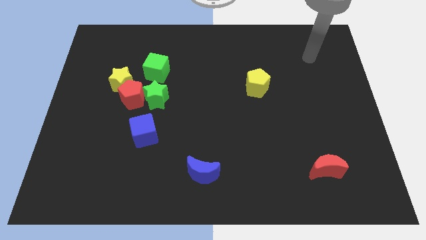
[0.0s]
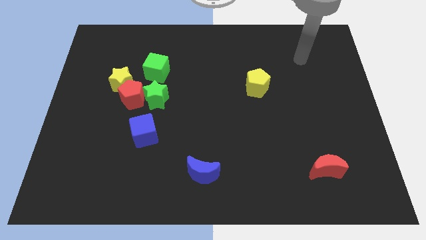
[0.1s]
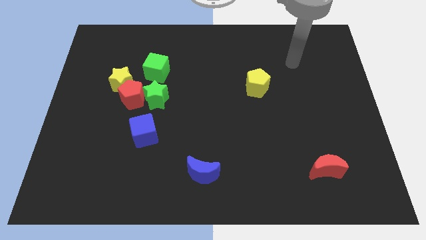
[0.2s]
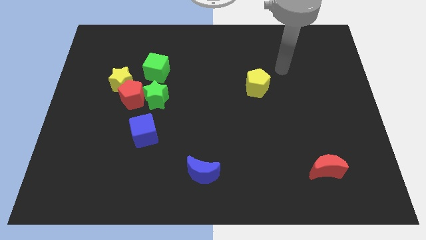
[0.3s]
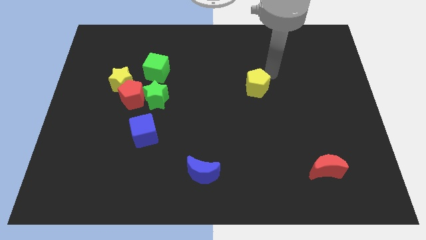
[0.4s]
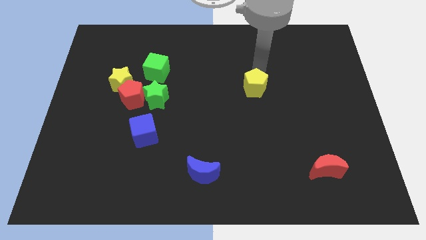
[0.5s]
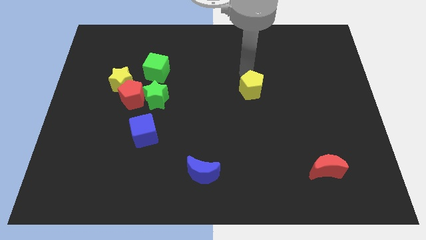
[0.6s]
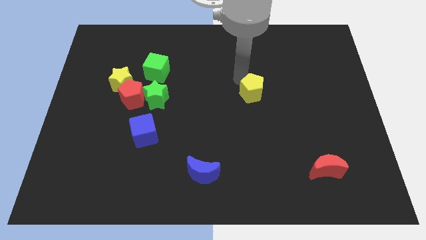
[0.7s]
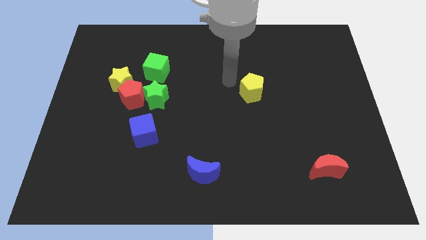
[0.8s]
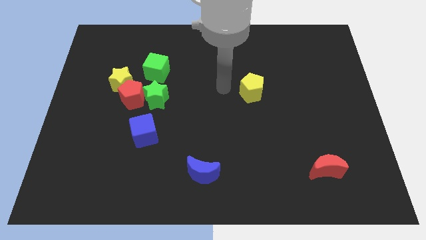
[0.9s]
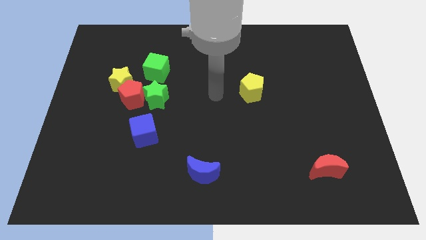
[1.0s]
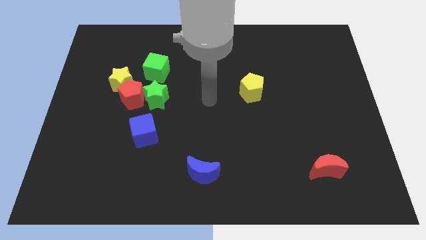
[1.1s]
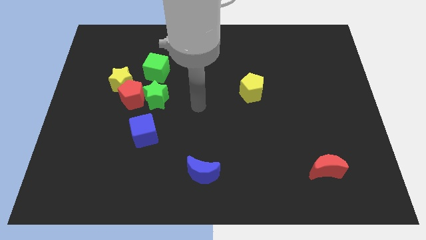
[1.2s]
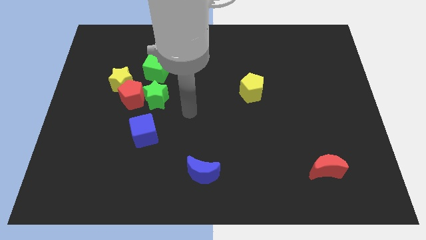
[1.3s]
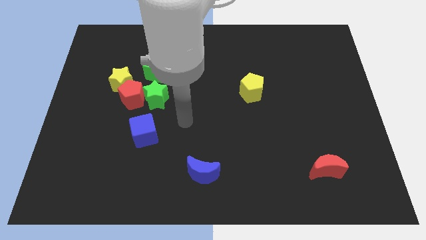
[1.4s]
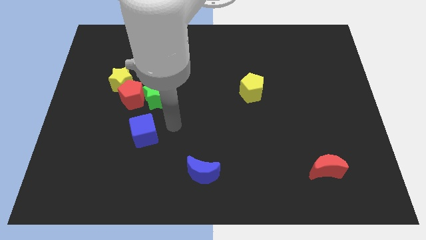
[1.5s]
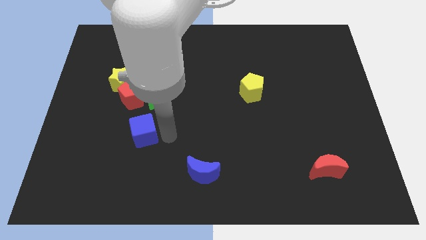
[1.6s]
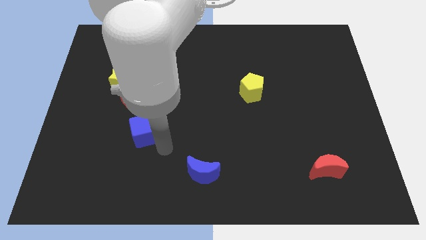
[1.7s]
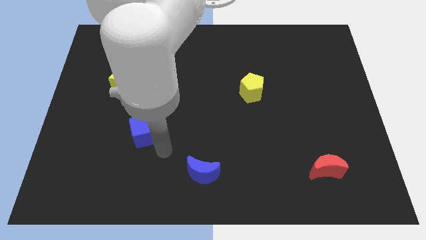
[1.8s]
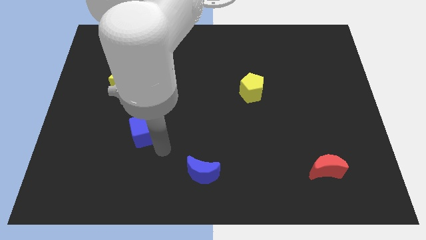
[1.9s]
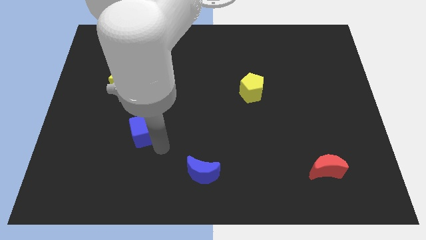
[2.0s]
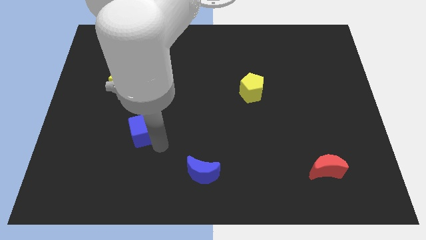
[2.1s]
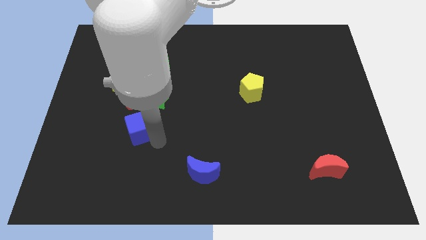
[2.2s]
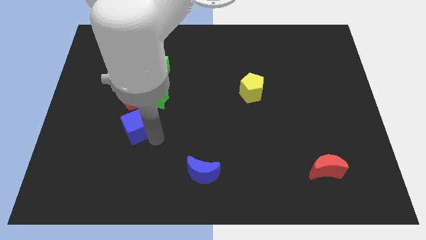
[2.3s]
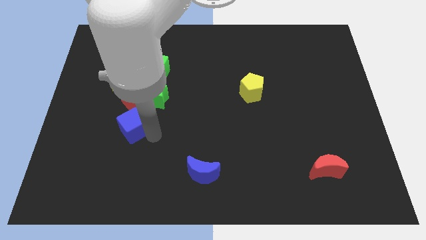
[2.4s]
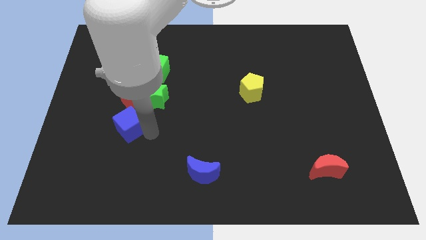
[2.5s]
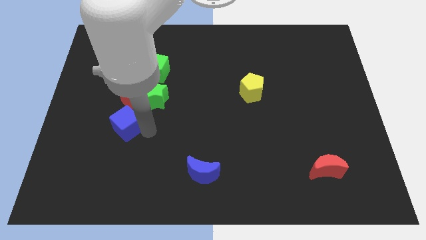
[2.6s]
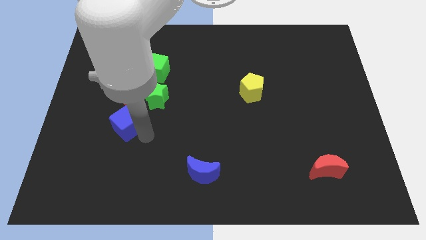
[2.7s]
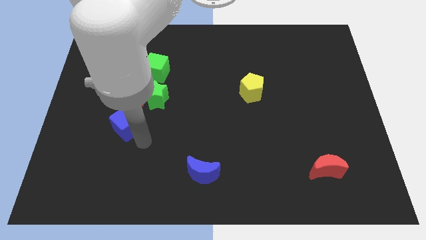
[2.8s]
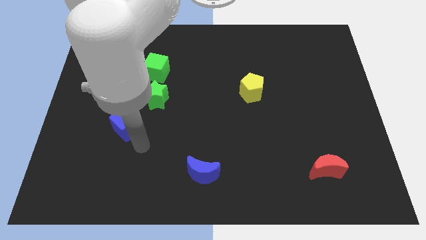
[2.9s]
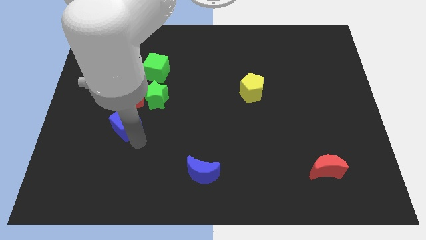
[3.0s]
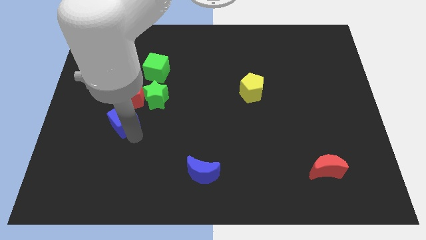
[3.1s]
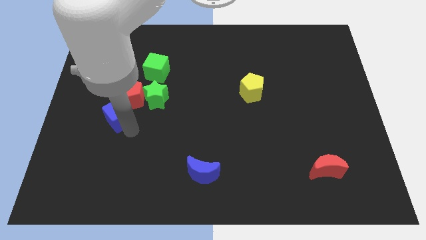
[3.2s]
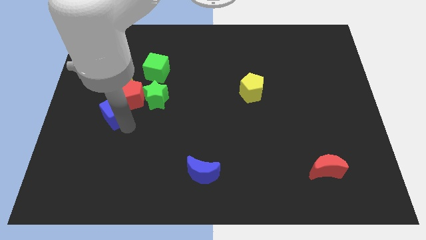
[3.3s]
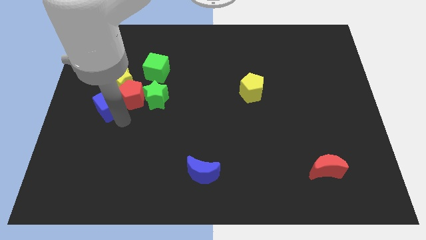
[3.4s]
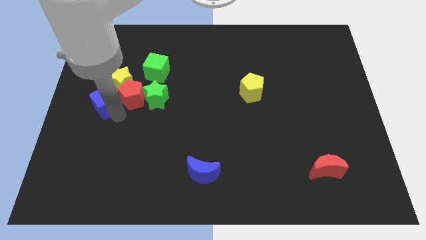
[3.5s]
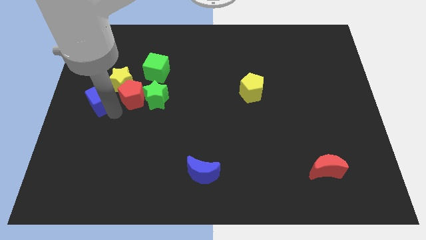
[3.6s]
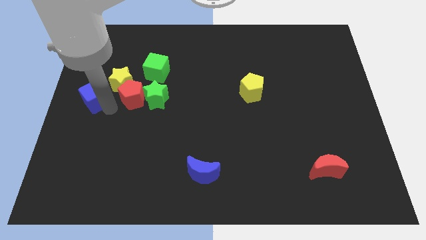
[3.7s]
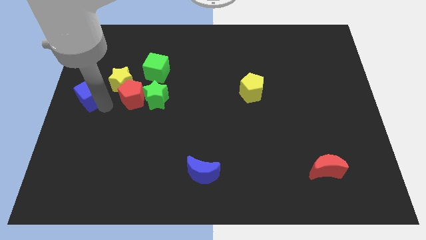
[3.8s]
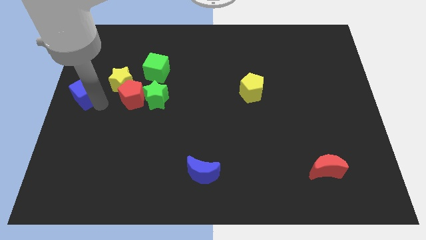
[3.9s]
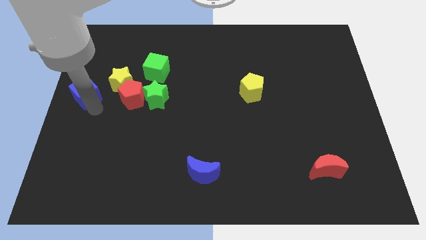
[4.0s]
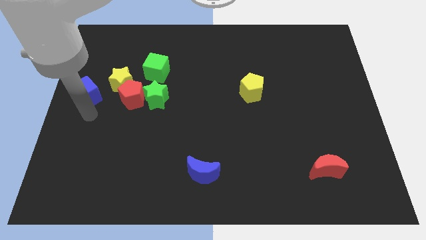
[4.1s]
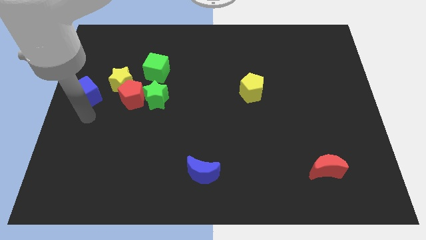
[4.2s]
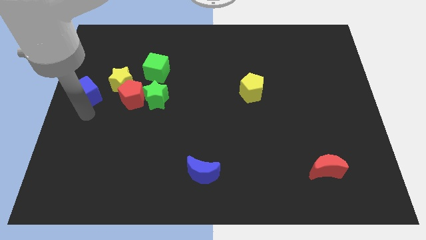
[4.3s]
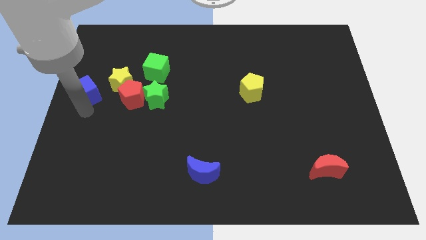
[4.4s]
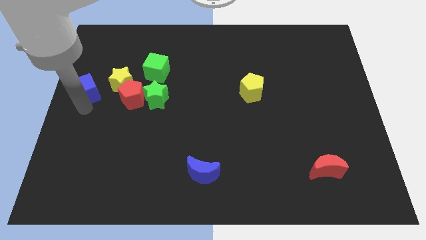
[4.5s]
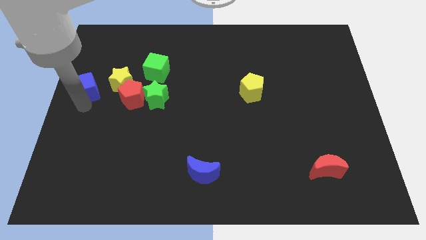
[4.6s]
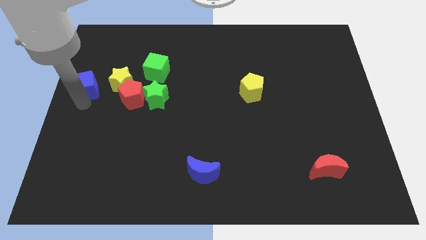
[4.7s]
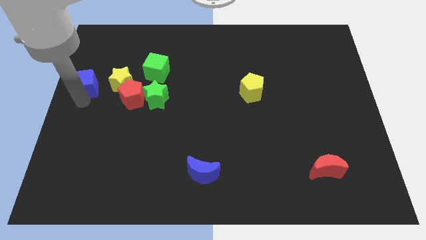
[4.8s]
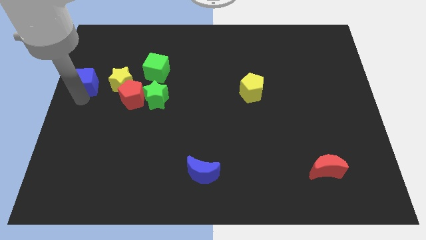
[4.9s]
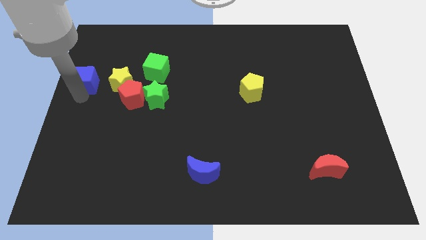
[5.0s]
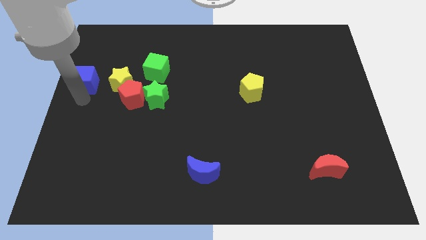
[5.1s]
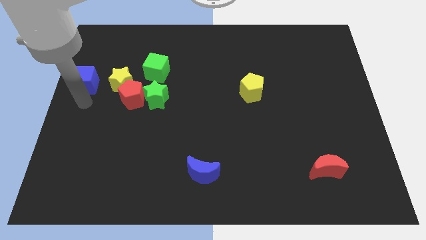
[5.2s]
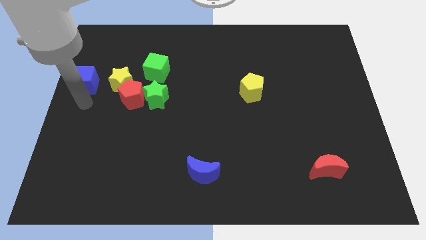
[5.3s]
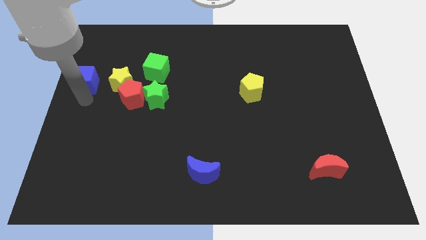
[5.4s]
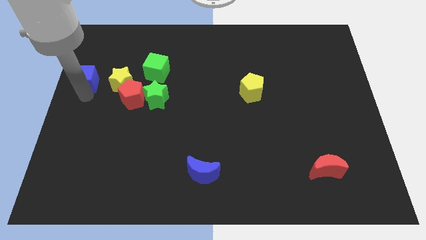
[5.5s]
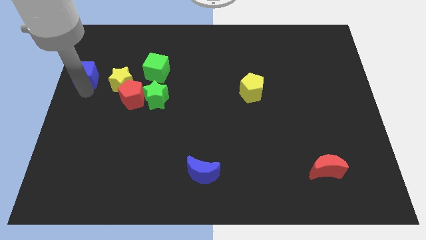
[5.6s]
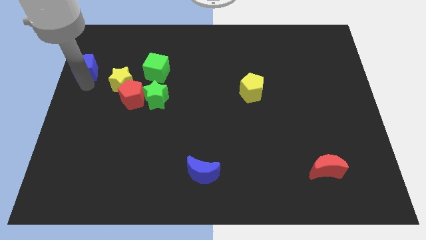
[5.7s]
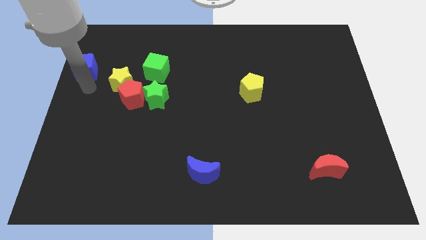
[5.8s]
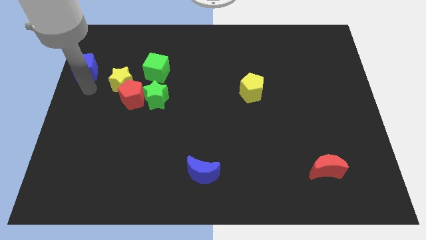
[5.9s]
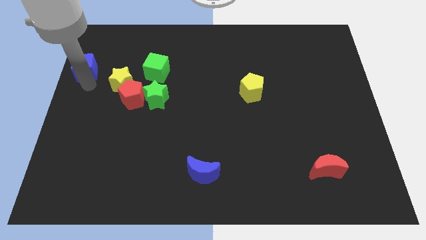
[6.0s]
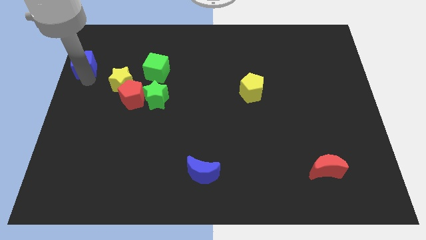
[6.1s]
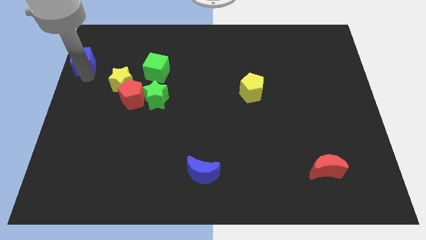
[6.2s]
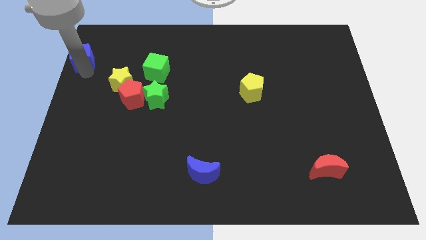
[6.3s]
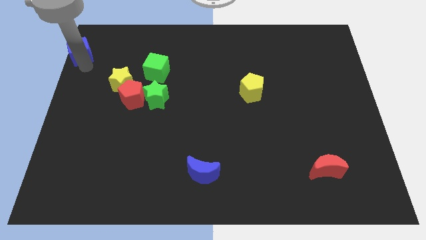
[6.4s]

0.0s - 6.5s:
push the blue cube to the top left

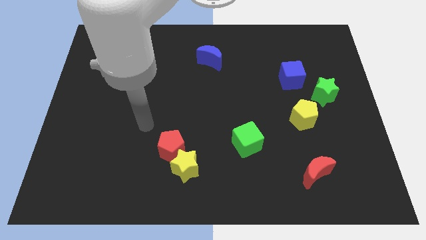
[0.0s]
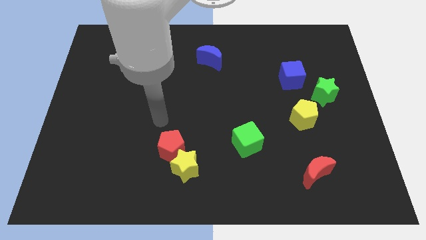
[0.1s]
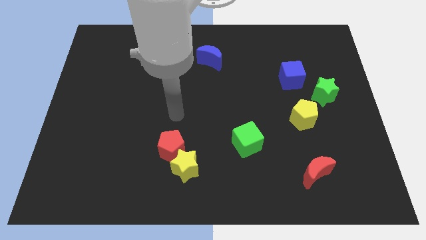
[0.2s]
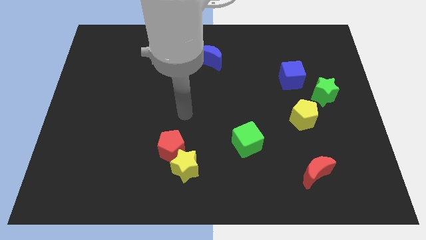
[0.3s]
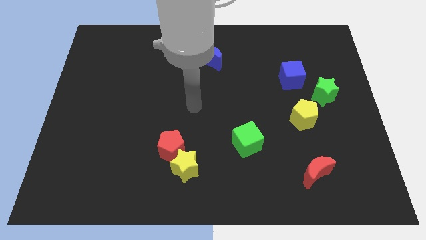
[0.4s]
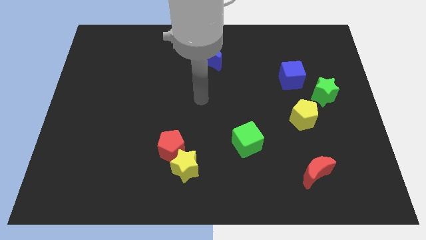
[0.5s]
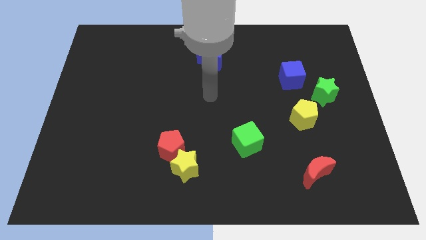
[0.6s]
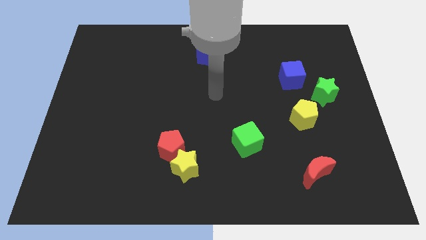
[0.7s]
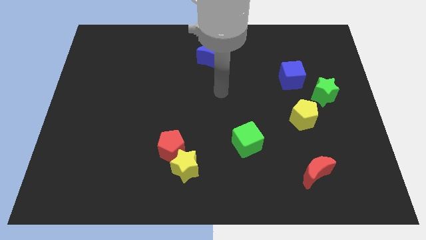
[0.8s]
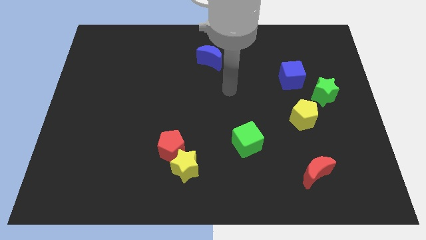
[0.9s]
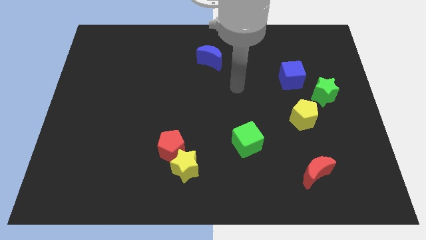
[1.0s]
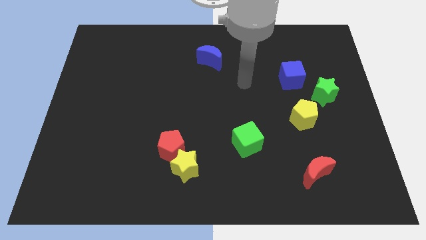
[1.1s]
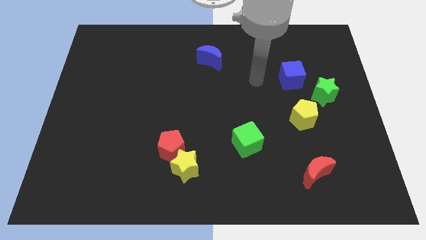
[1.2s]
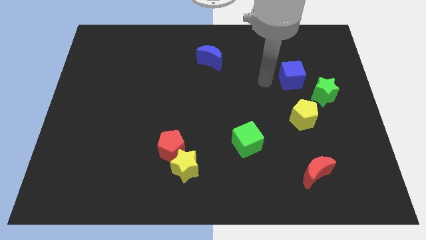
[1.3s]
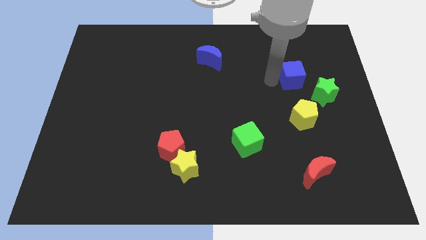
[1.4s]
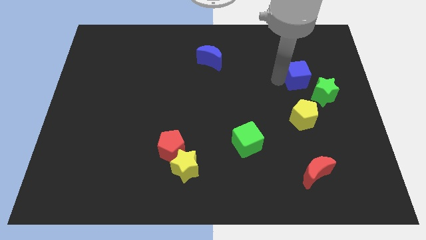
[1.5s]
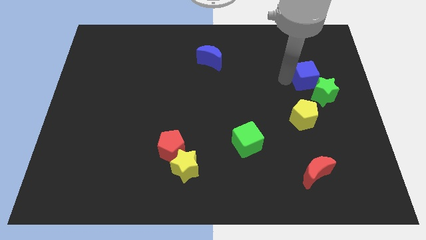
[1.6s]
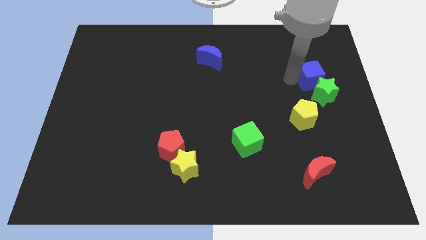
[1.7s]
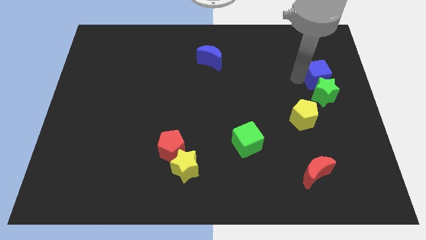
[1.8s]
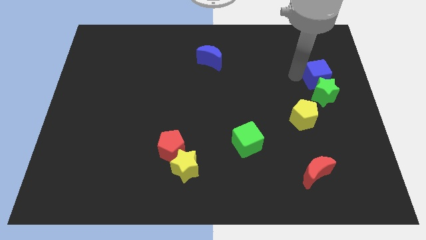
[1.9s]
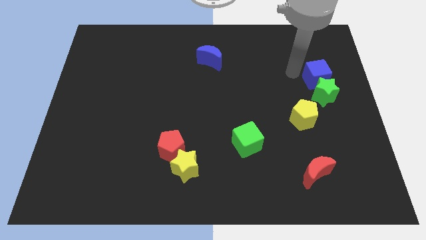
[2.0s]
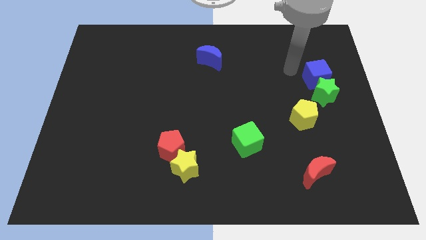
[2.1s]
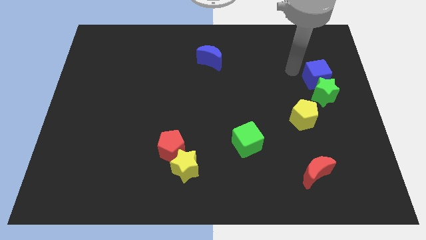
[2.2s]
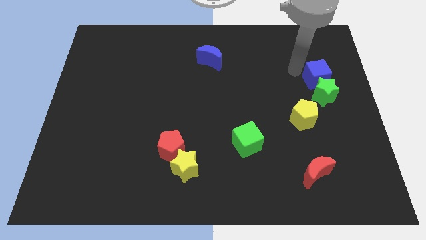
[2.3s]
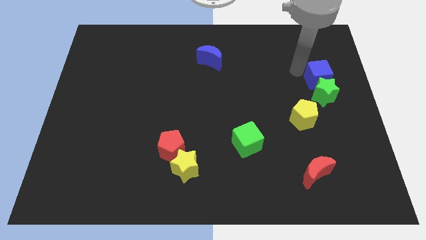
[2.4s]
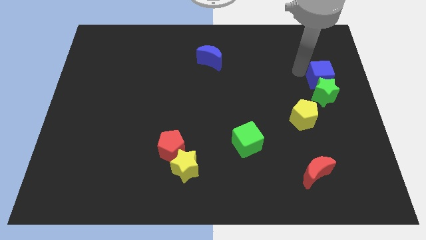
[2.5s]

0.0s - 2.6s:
push the blue cube to the center right
